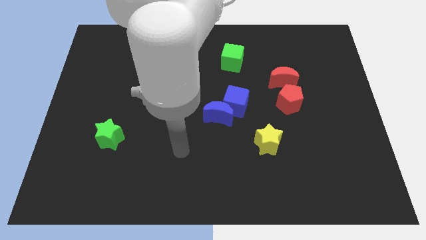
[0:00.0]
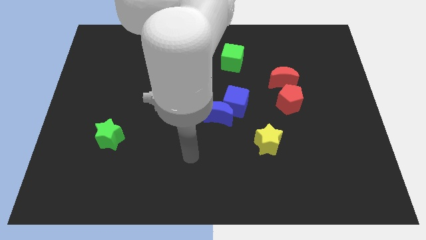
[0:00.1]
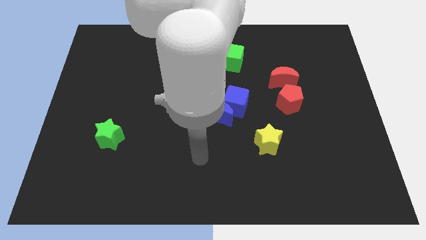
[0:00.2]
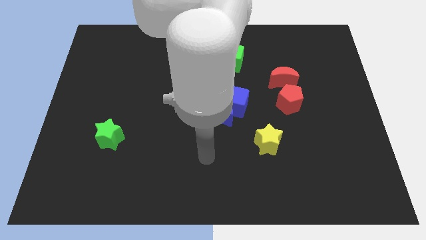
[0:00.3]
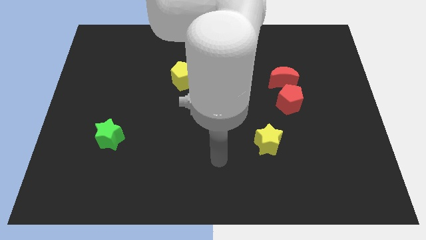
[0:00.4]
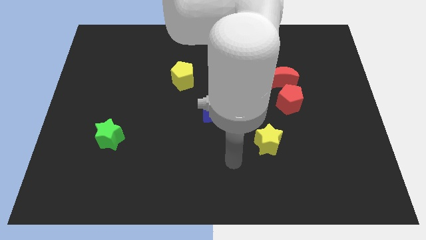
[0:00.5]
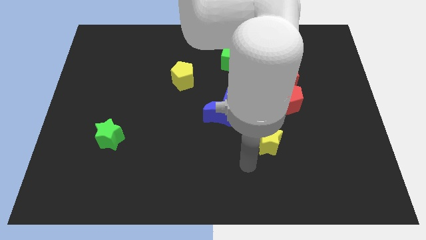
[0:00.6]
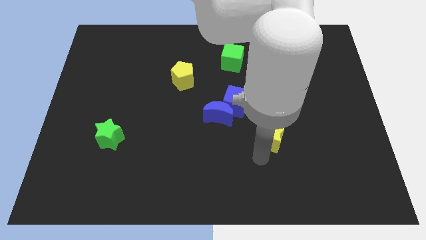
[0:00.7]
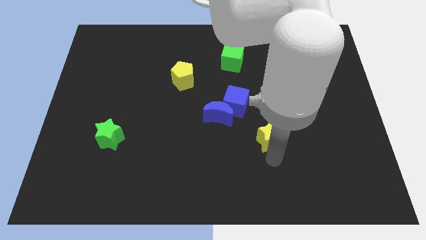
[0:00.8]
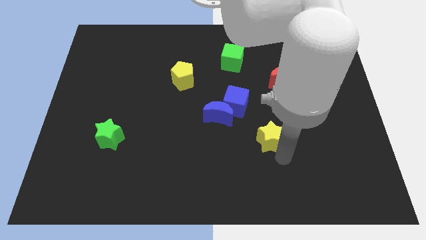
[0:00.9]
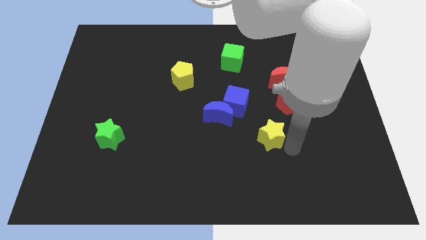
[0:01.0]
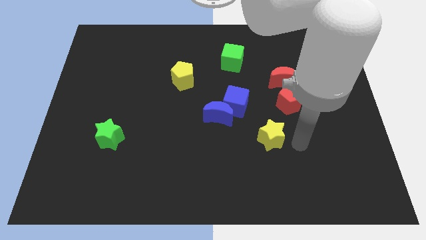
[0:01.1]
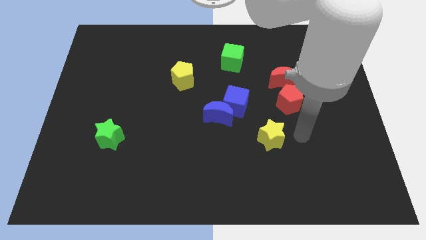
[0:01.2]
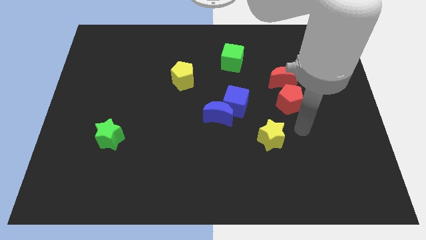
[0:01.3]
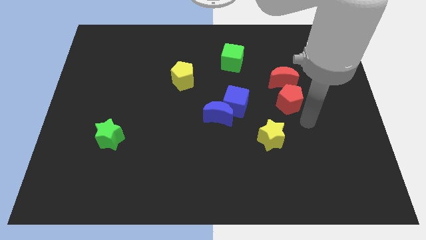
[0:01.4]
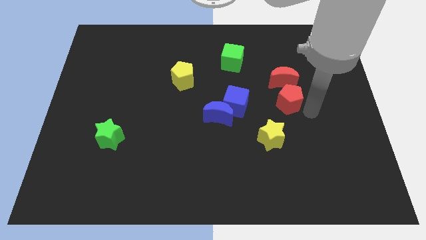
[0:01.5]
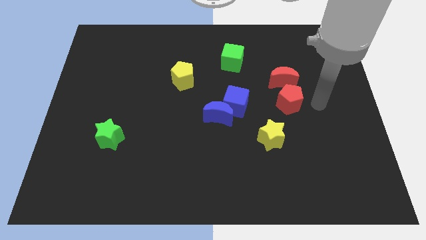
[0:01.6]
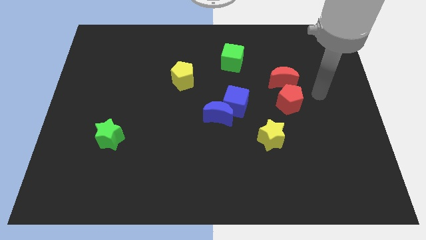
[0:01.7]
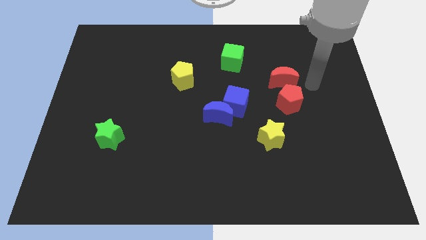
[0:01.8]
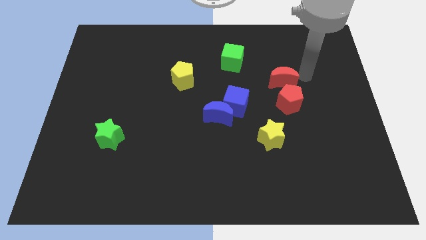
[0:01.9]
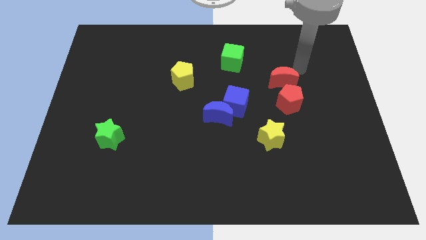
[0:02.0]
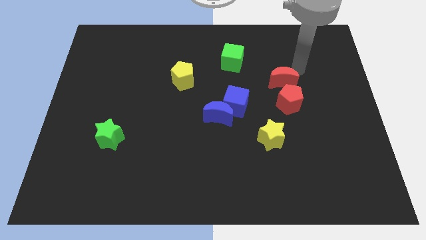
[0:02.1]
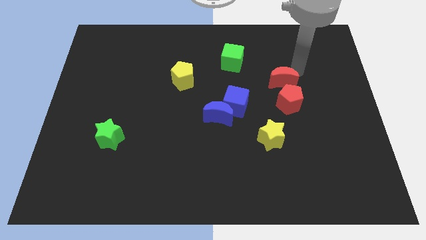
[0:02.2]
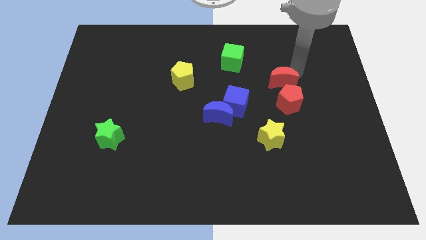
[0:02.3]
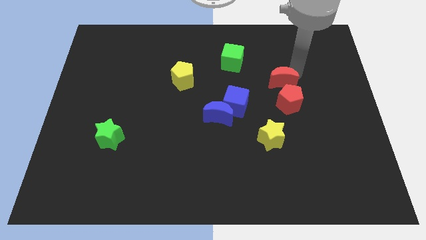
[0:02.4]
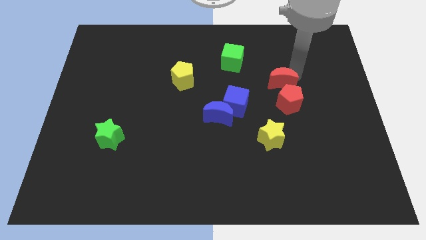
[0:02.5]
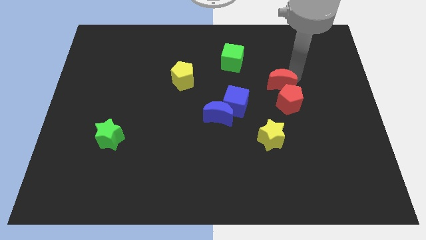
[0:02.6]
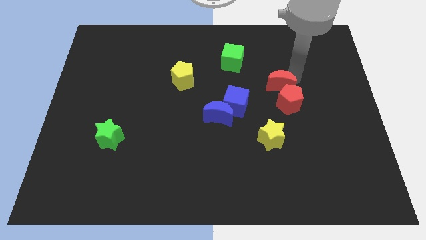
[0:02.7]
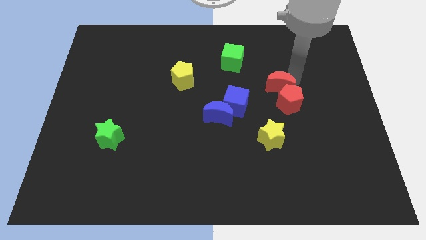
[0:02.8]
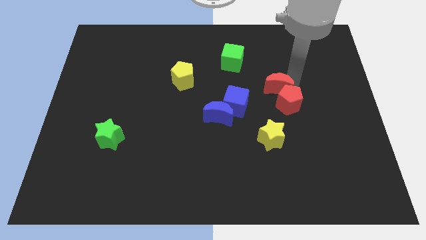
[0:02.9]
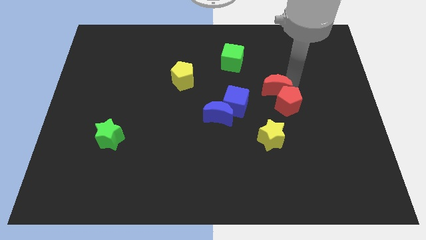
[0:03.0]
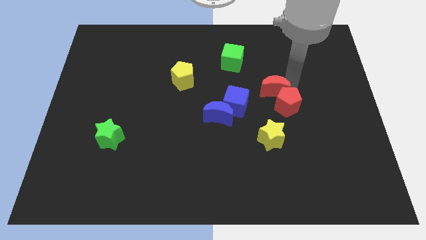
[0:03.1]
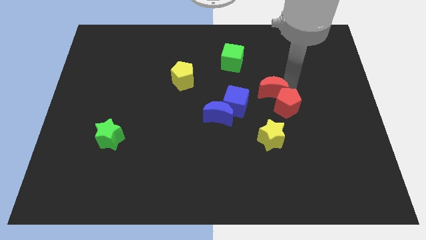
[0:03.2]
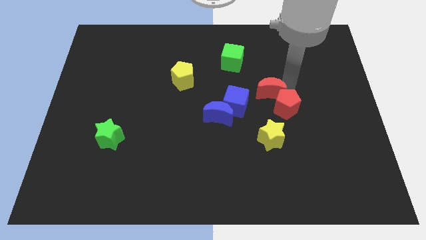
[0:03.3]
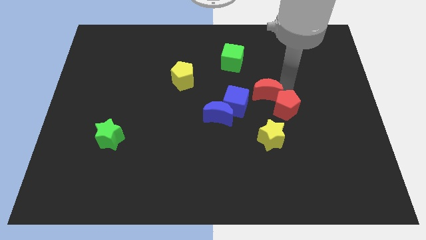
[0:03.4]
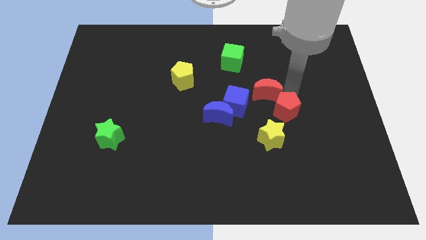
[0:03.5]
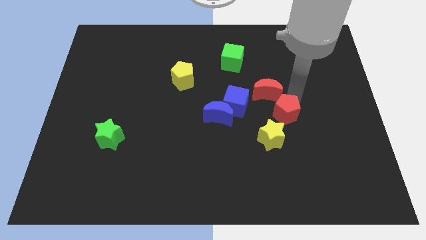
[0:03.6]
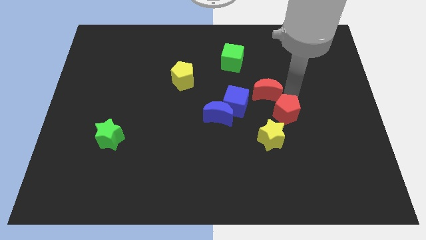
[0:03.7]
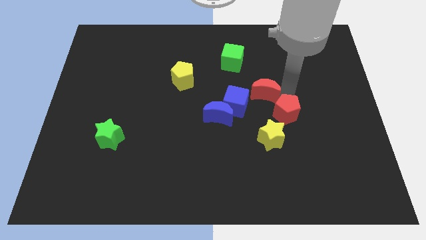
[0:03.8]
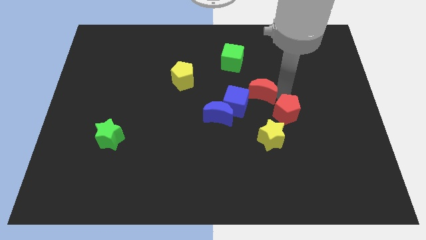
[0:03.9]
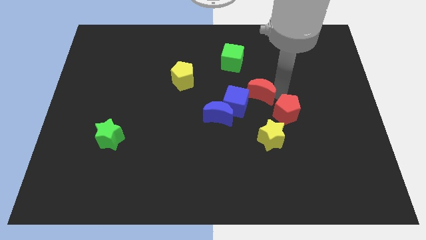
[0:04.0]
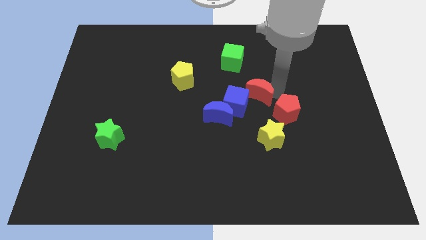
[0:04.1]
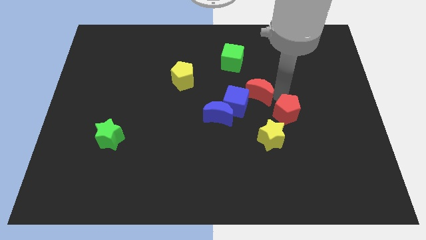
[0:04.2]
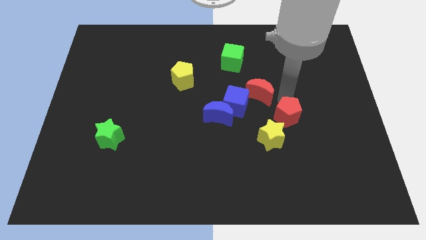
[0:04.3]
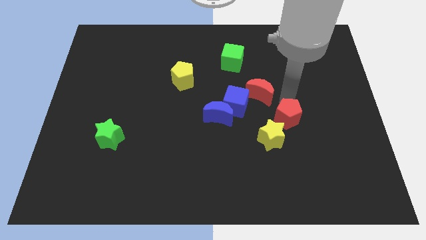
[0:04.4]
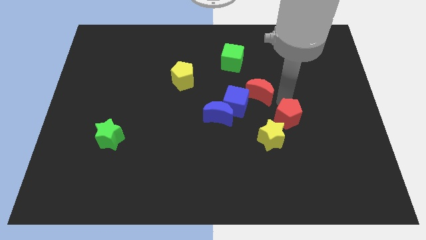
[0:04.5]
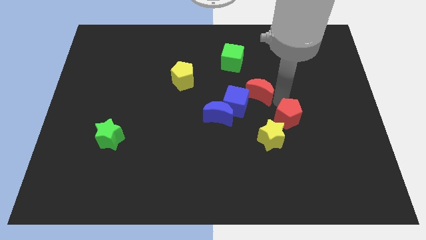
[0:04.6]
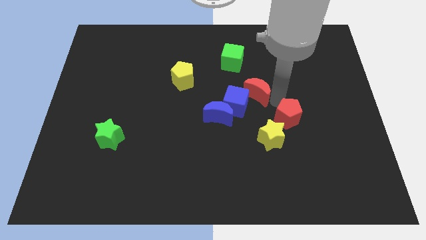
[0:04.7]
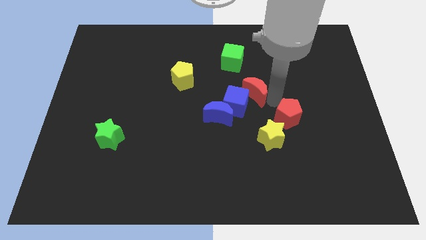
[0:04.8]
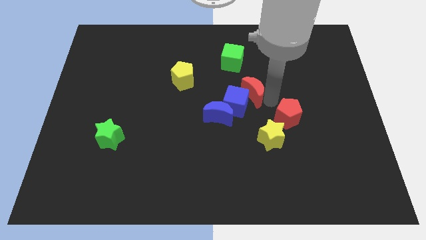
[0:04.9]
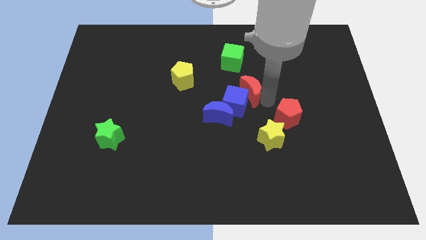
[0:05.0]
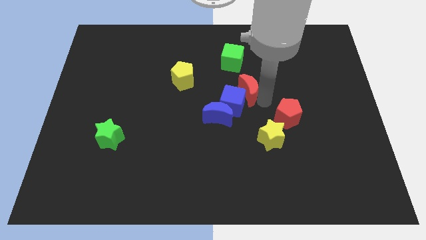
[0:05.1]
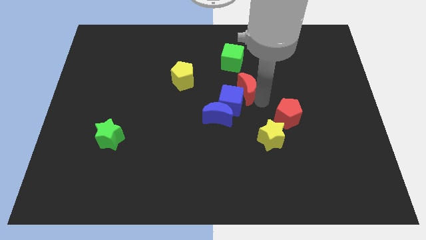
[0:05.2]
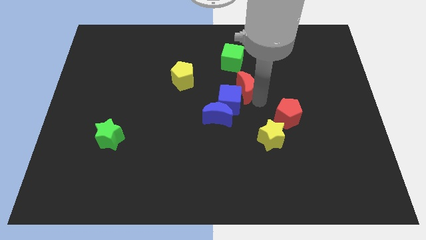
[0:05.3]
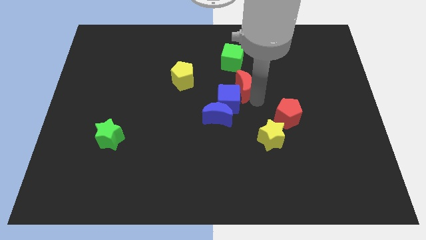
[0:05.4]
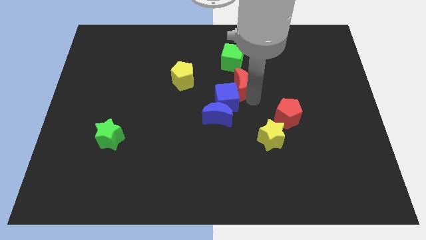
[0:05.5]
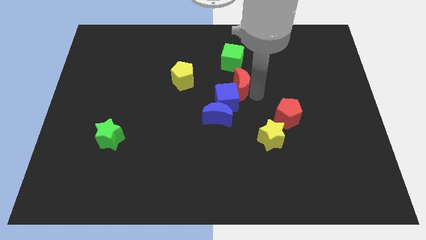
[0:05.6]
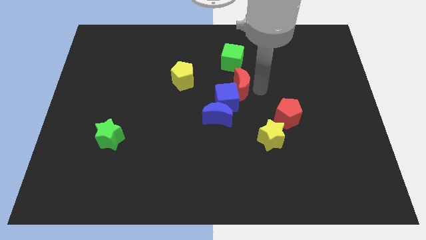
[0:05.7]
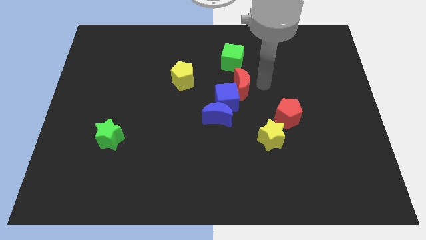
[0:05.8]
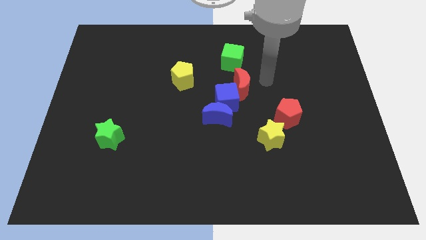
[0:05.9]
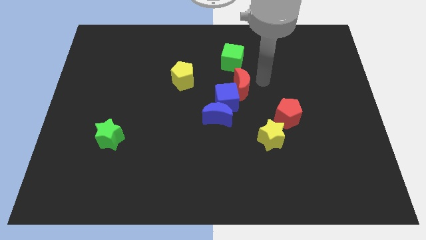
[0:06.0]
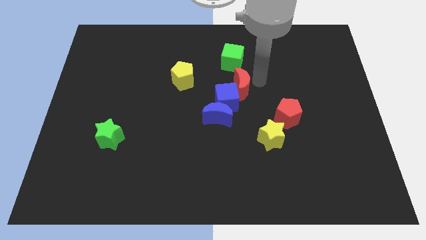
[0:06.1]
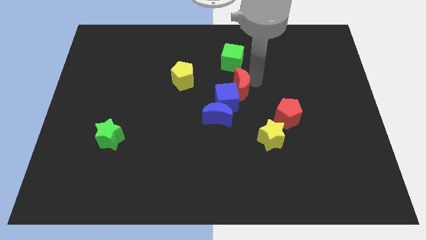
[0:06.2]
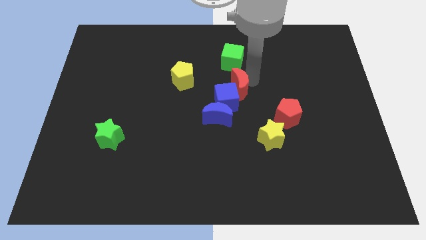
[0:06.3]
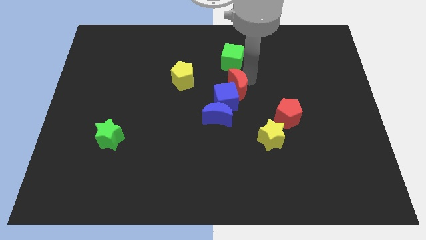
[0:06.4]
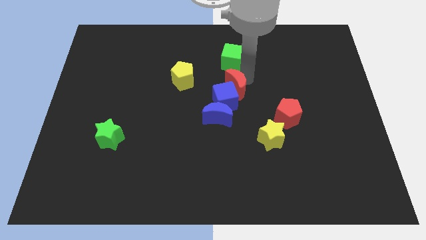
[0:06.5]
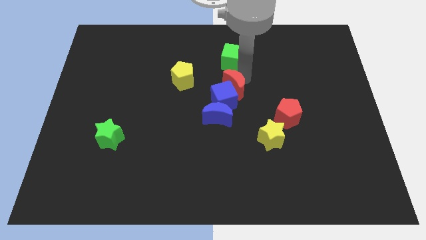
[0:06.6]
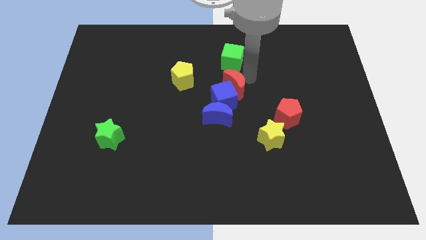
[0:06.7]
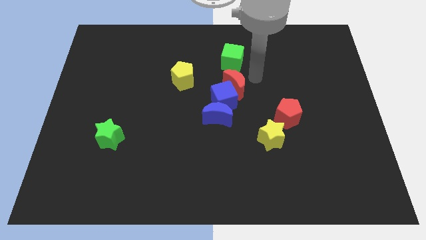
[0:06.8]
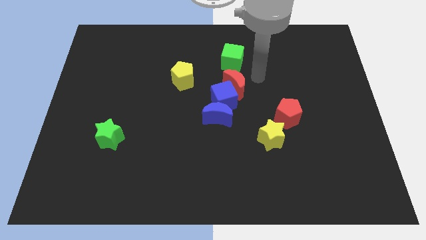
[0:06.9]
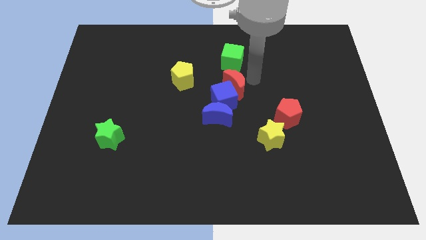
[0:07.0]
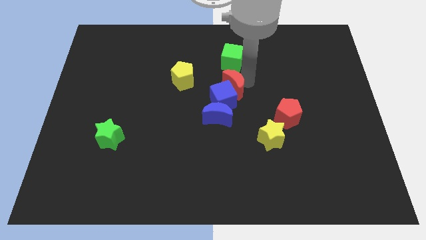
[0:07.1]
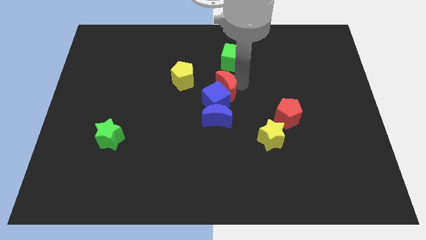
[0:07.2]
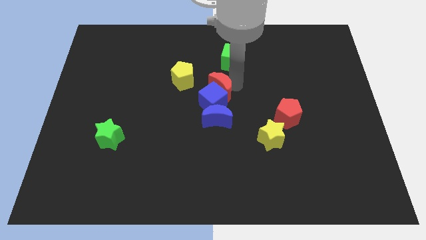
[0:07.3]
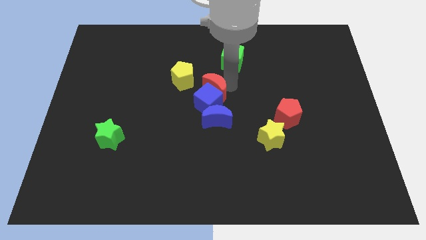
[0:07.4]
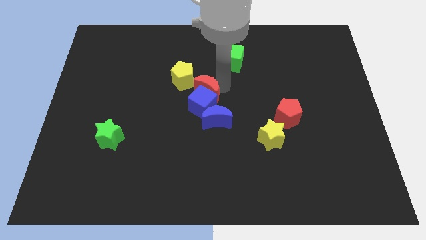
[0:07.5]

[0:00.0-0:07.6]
put the red moon to the top left side of the blue moon
